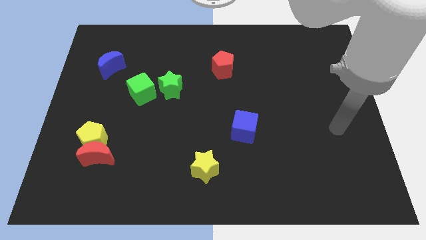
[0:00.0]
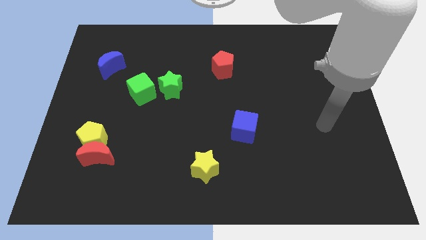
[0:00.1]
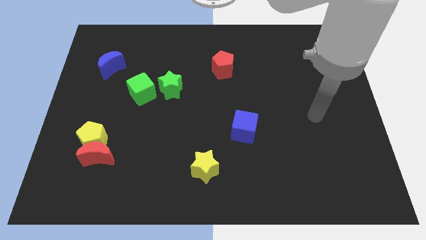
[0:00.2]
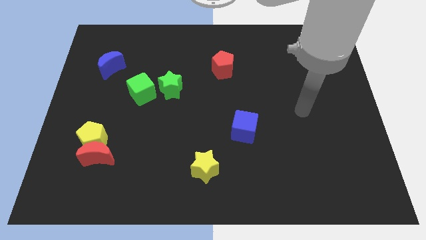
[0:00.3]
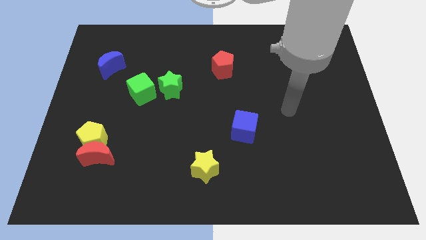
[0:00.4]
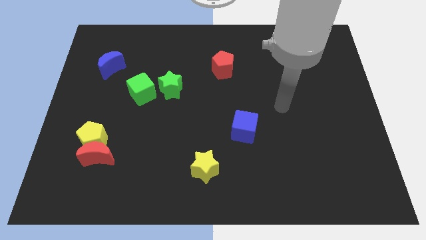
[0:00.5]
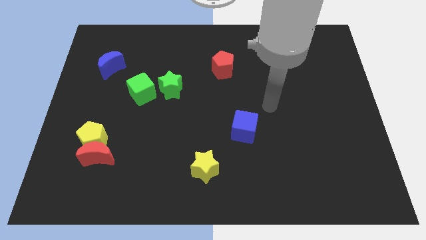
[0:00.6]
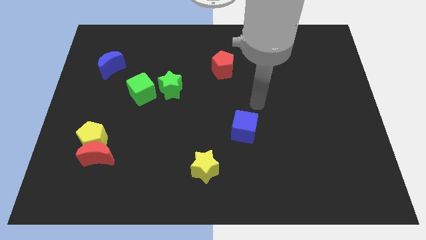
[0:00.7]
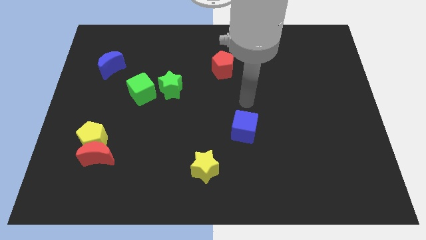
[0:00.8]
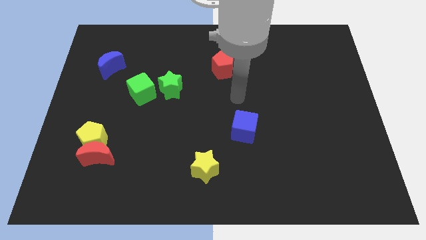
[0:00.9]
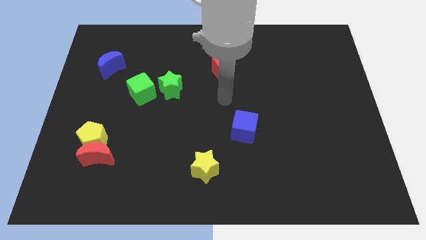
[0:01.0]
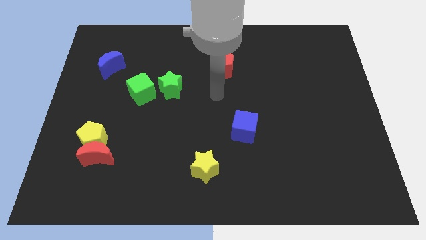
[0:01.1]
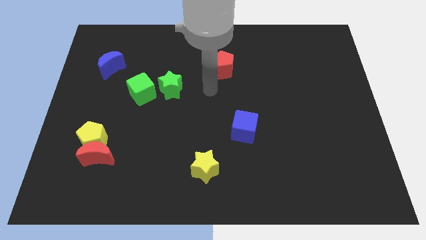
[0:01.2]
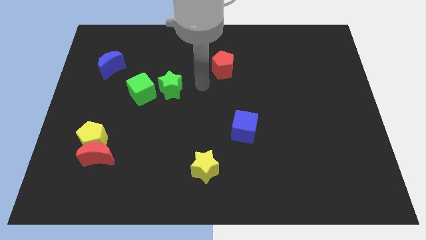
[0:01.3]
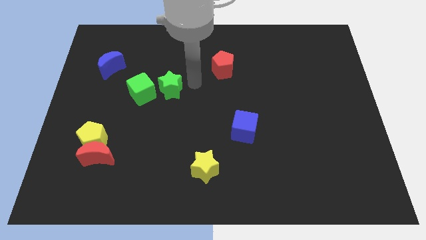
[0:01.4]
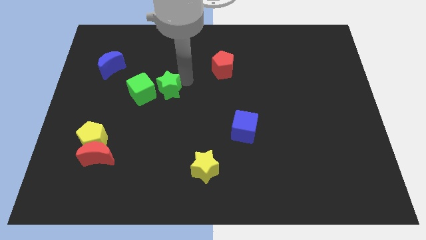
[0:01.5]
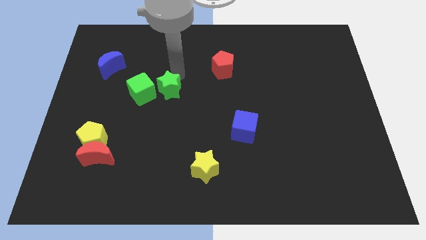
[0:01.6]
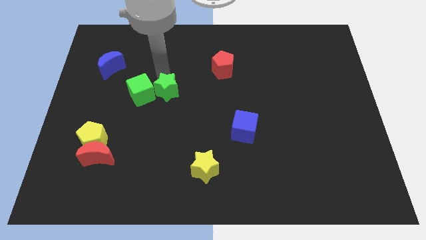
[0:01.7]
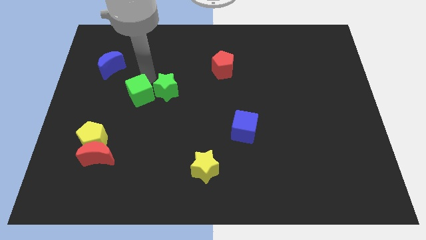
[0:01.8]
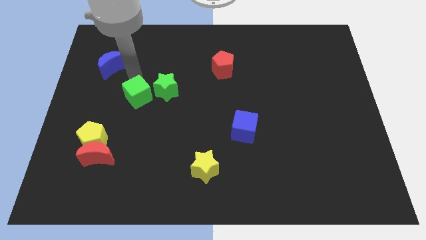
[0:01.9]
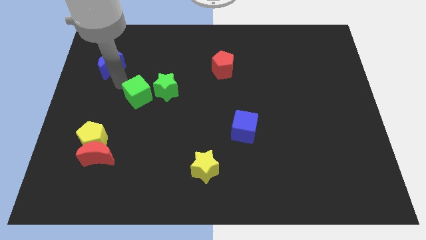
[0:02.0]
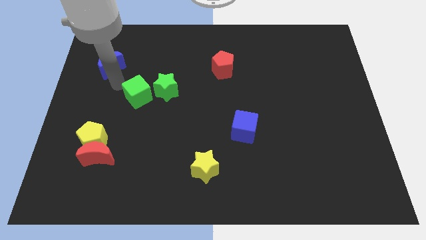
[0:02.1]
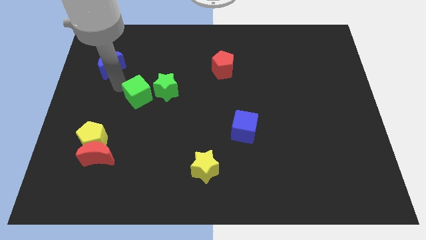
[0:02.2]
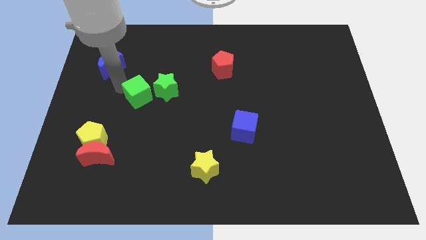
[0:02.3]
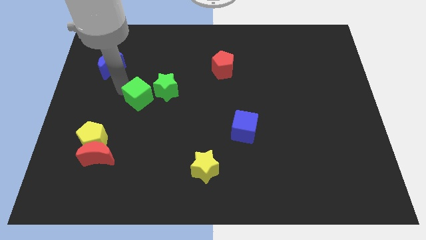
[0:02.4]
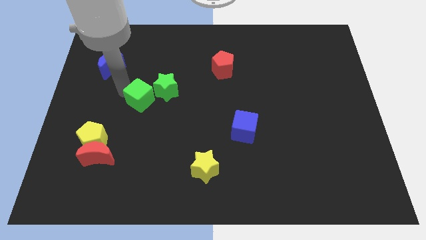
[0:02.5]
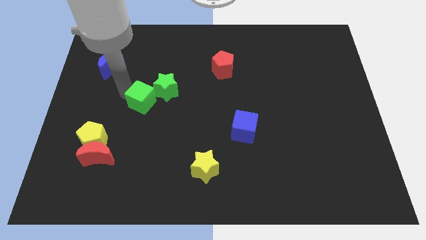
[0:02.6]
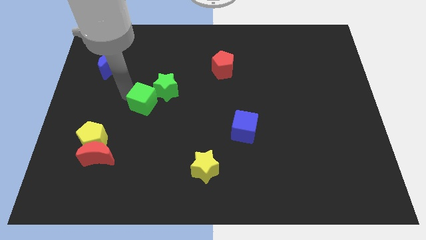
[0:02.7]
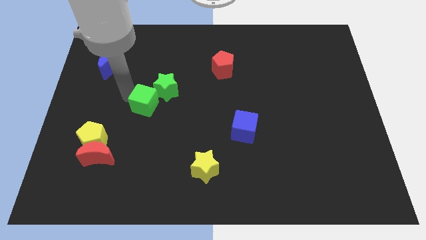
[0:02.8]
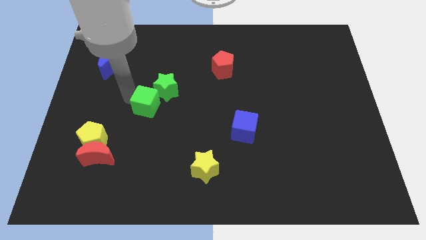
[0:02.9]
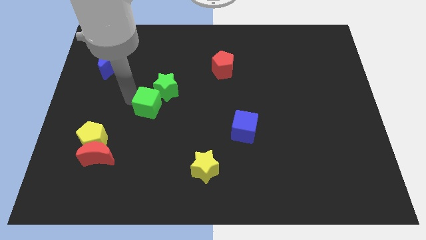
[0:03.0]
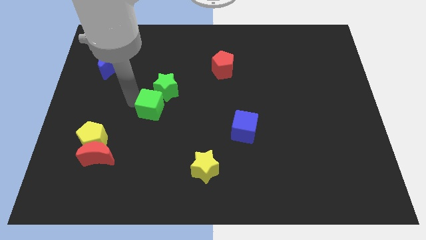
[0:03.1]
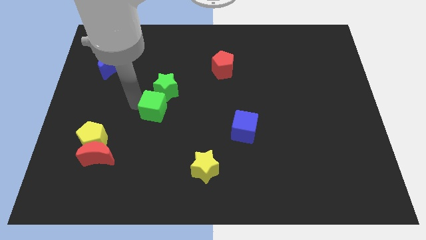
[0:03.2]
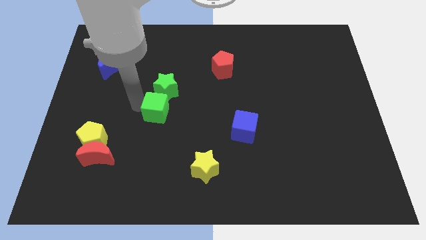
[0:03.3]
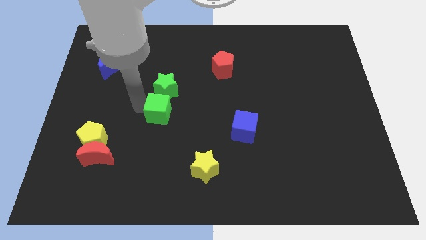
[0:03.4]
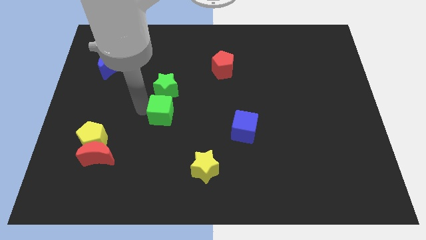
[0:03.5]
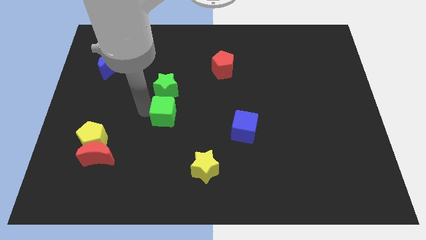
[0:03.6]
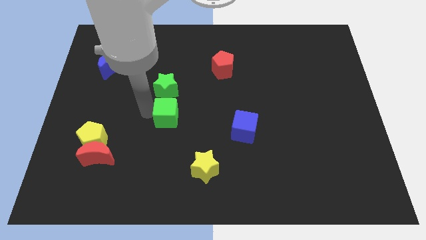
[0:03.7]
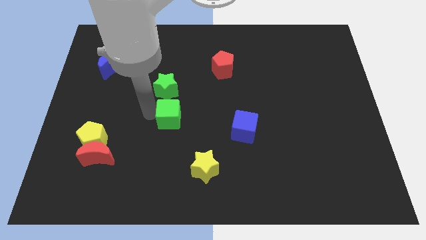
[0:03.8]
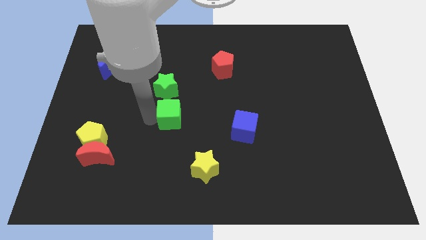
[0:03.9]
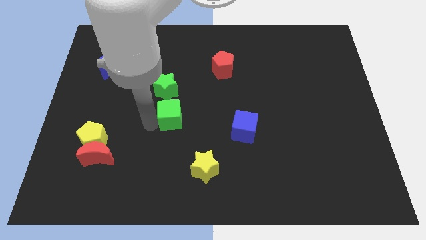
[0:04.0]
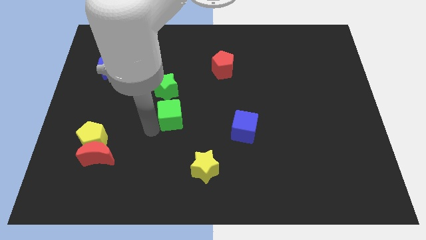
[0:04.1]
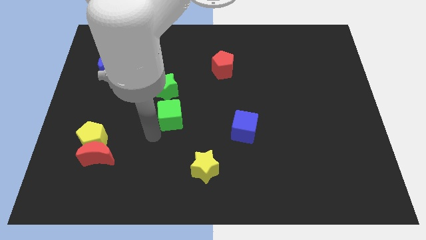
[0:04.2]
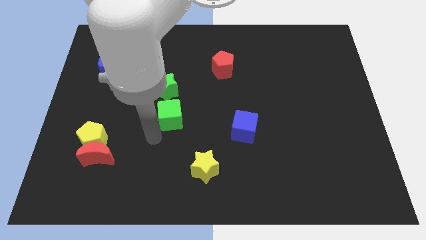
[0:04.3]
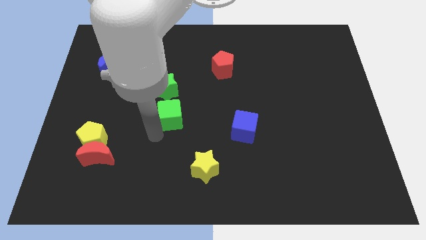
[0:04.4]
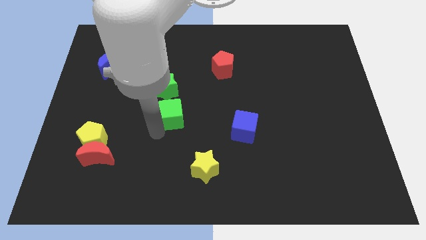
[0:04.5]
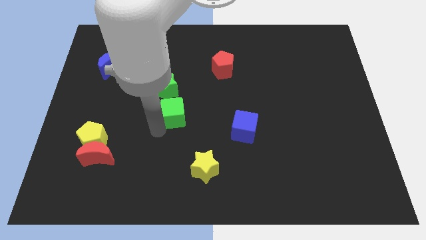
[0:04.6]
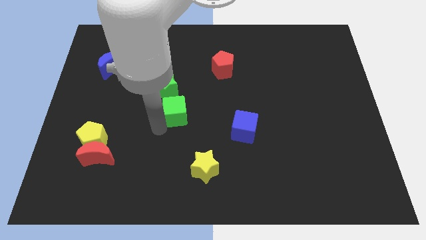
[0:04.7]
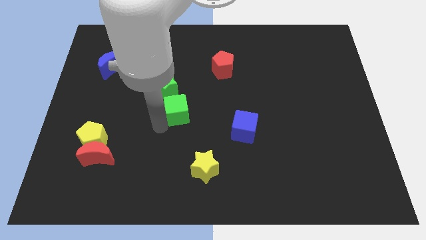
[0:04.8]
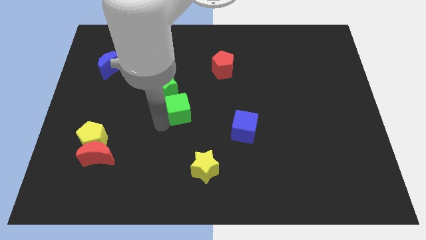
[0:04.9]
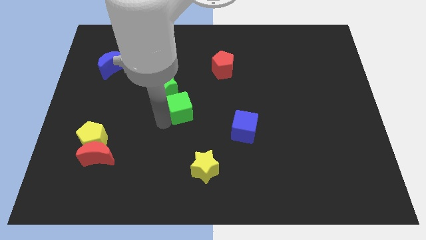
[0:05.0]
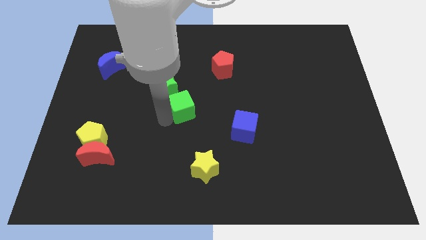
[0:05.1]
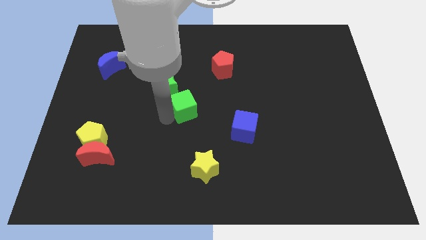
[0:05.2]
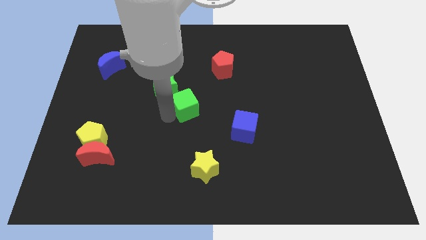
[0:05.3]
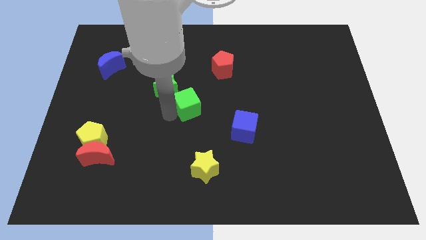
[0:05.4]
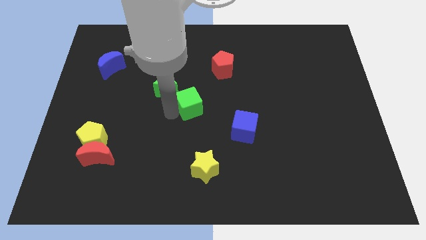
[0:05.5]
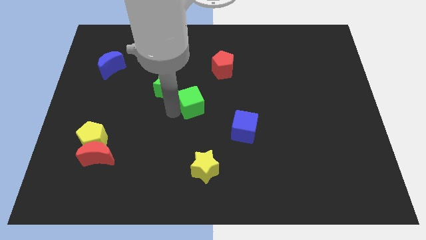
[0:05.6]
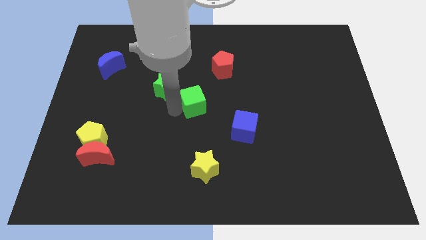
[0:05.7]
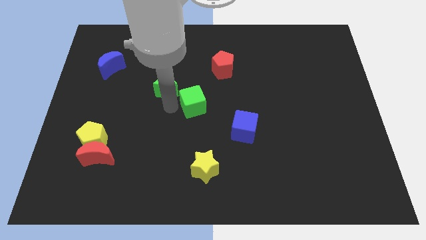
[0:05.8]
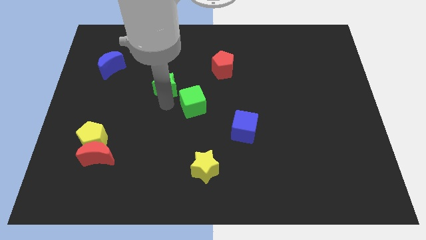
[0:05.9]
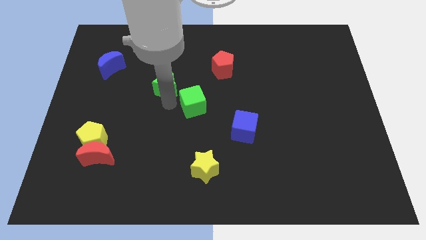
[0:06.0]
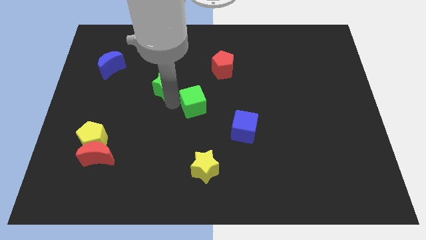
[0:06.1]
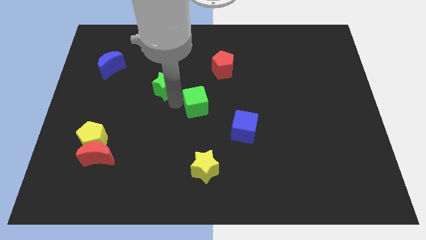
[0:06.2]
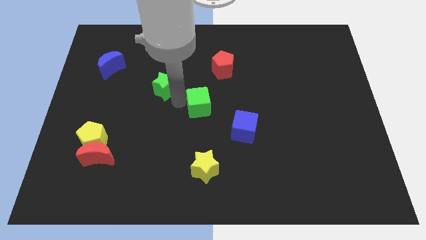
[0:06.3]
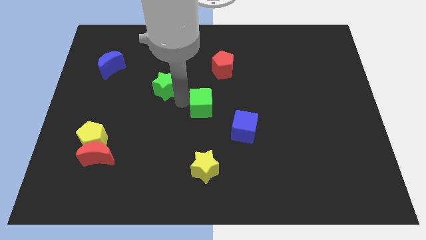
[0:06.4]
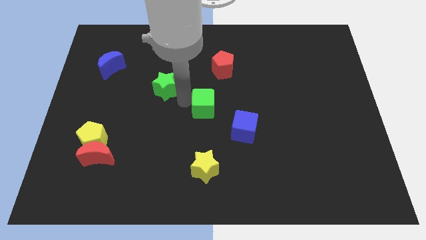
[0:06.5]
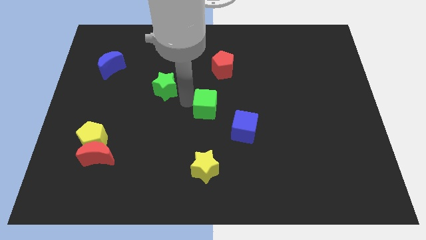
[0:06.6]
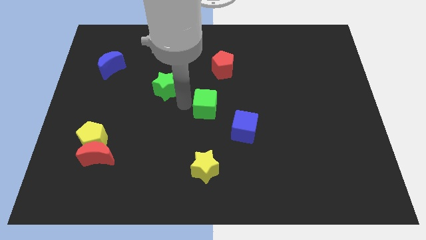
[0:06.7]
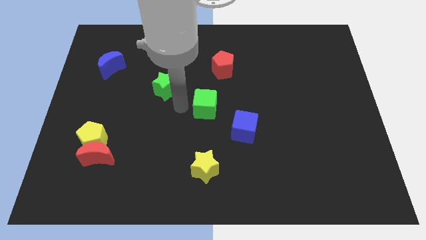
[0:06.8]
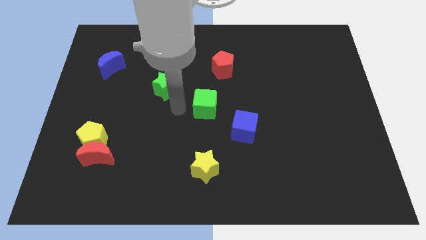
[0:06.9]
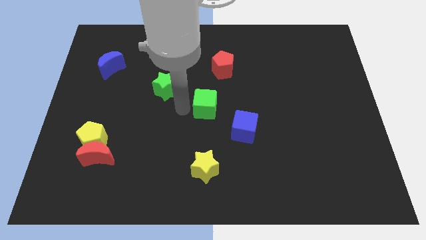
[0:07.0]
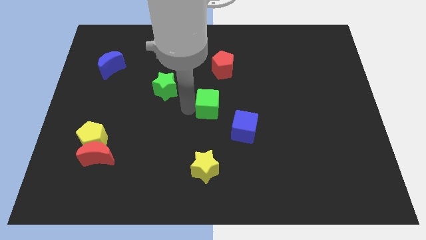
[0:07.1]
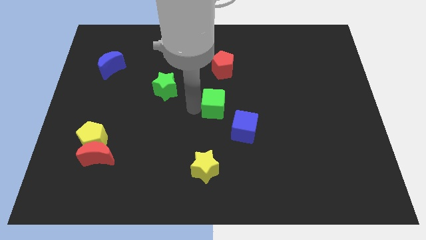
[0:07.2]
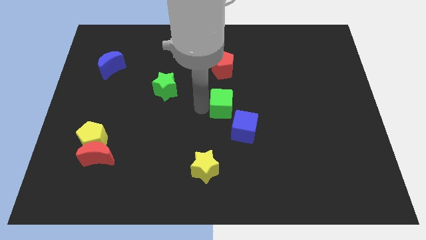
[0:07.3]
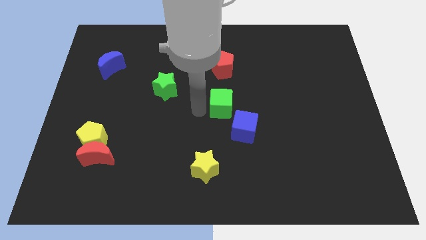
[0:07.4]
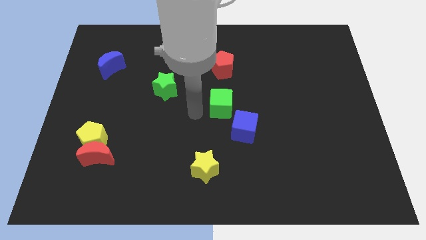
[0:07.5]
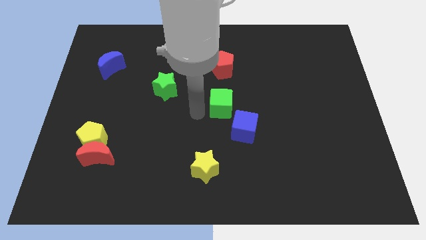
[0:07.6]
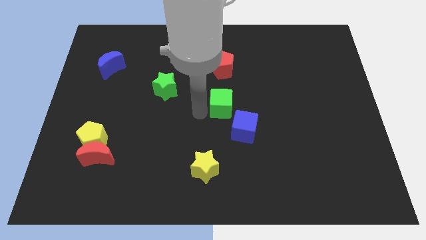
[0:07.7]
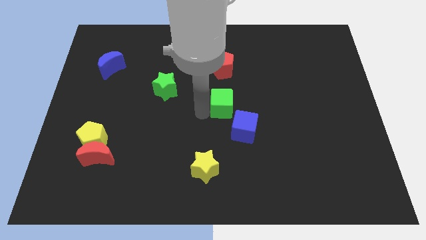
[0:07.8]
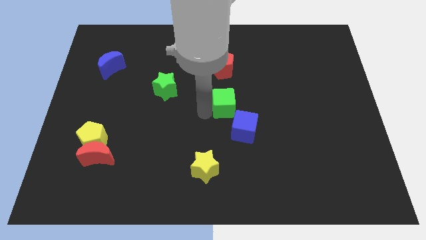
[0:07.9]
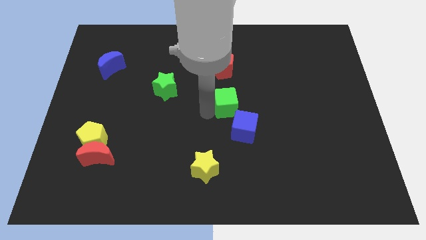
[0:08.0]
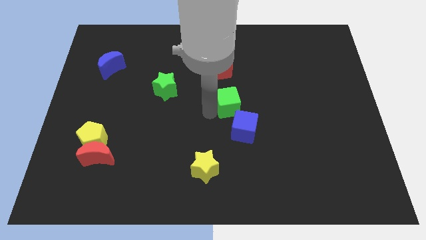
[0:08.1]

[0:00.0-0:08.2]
push the green cube right
